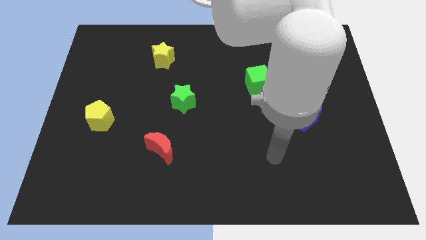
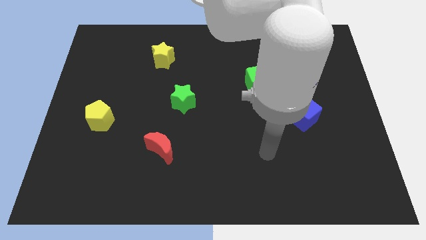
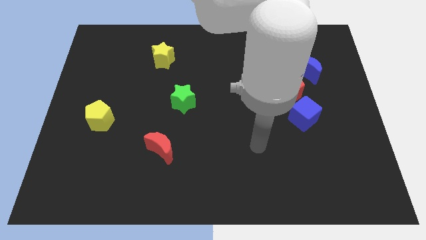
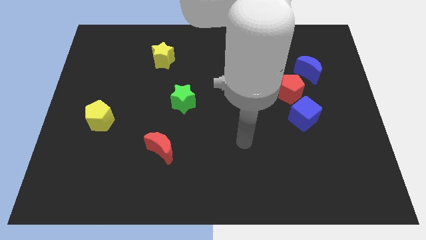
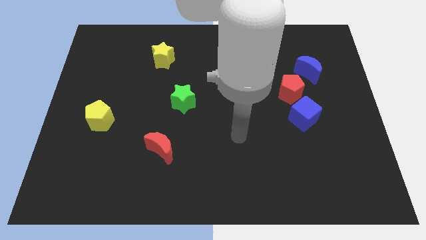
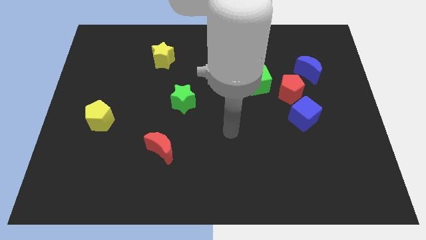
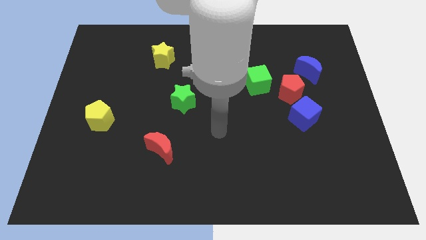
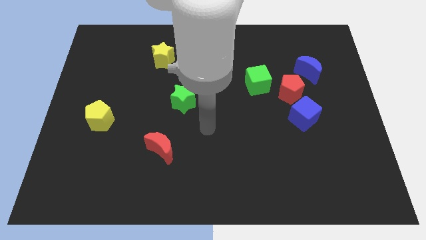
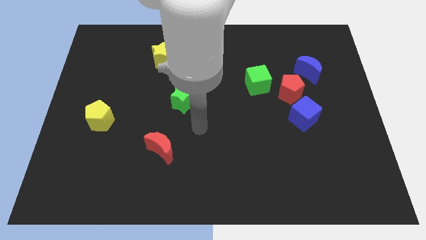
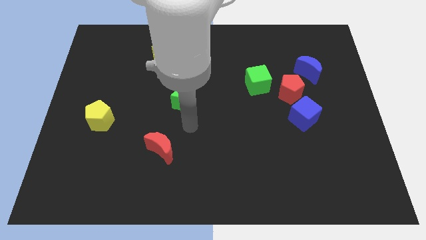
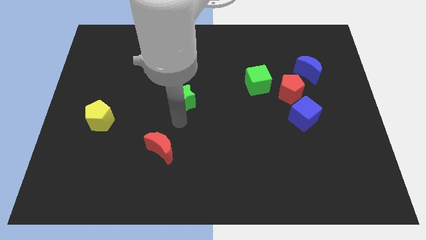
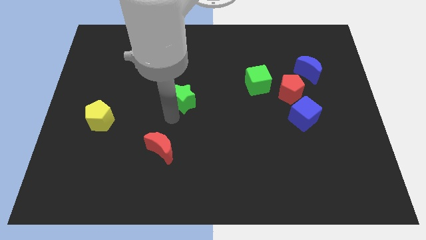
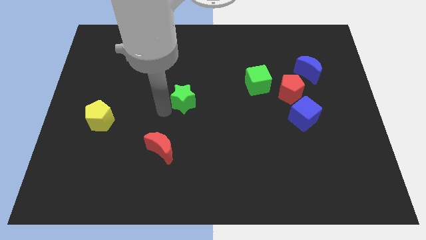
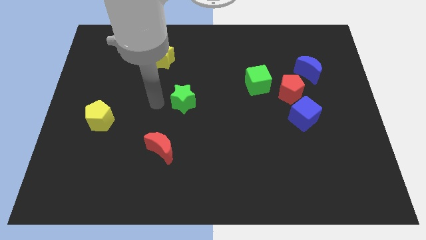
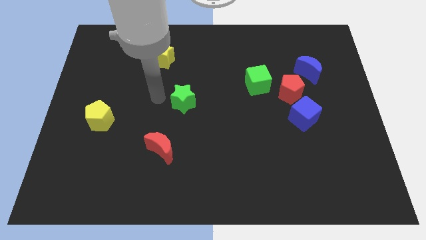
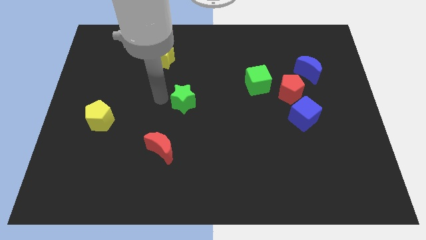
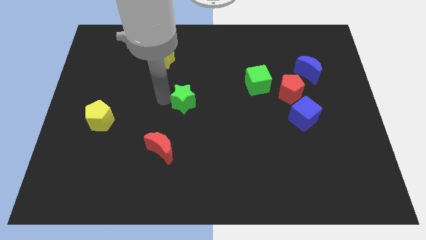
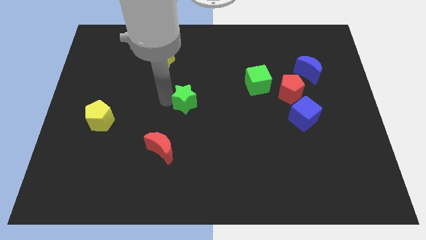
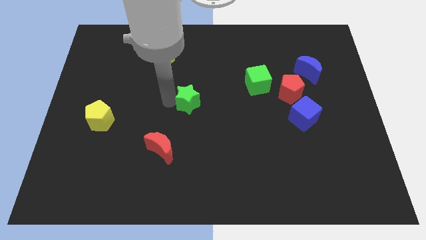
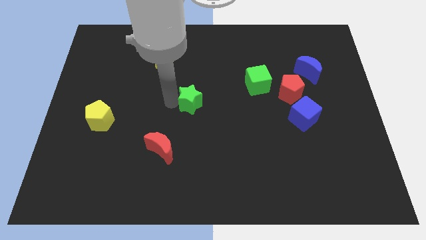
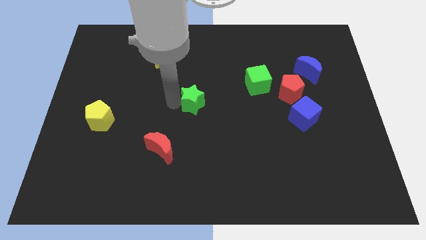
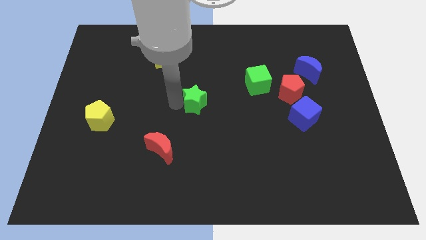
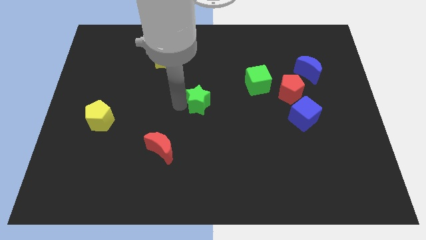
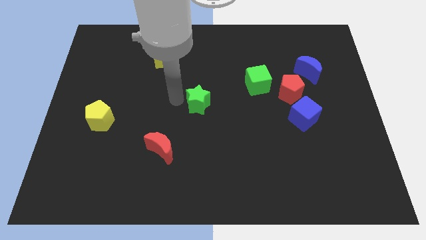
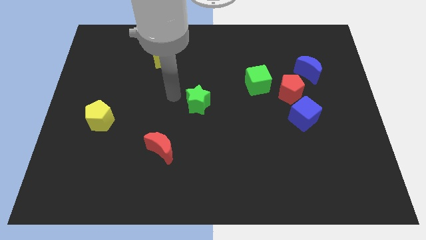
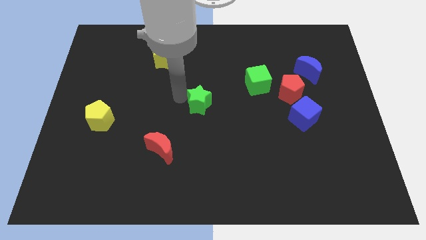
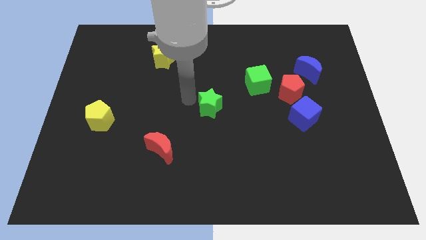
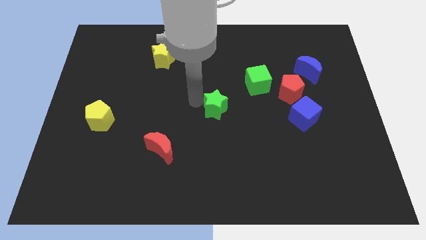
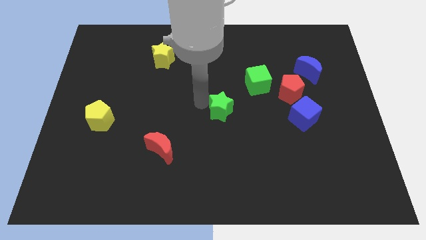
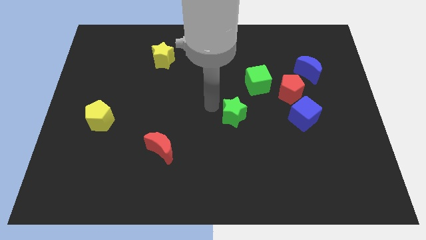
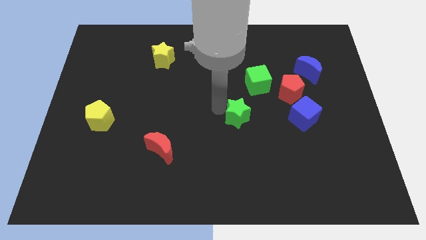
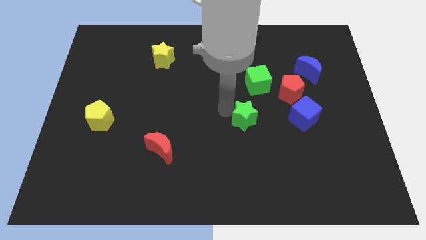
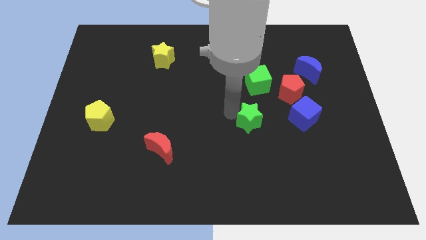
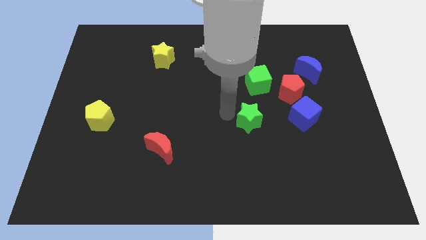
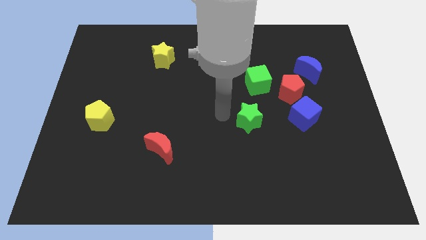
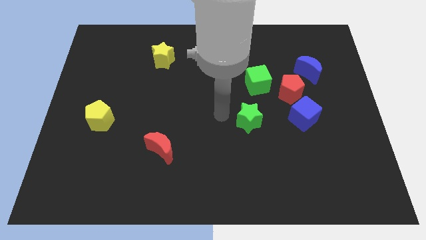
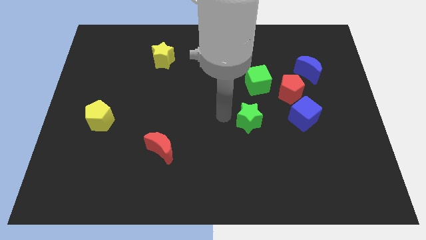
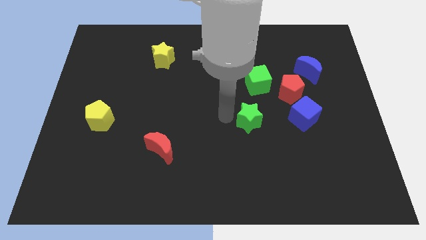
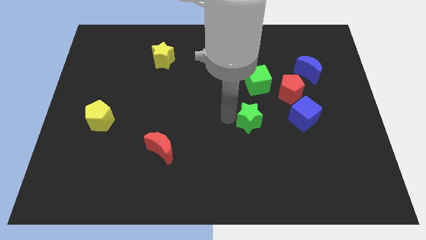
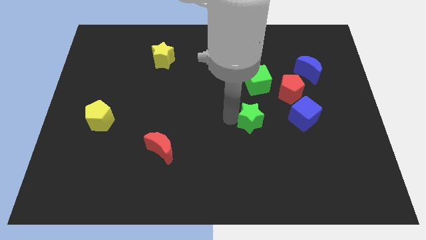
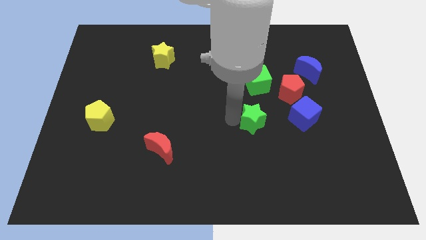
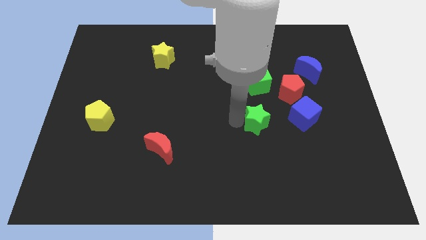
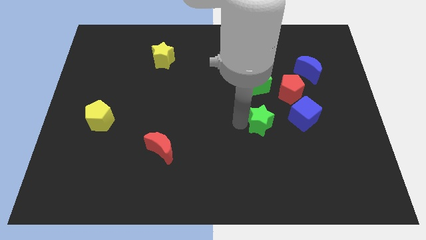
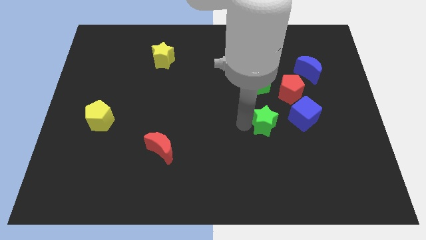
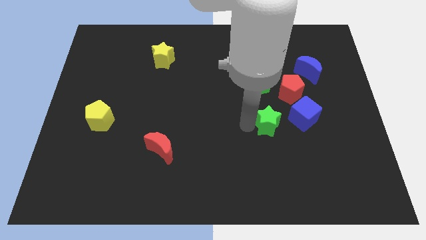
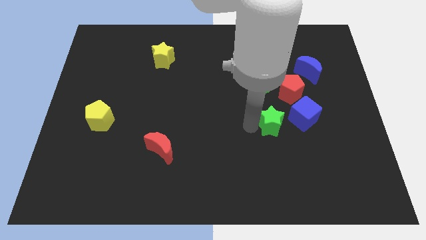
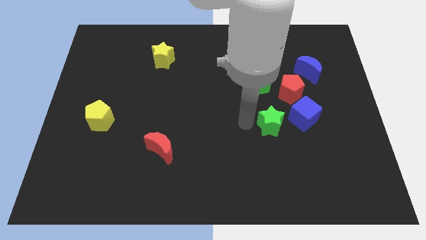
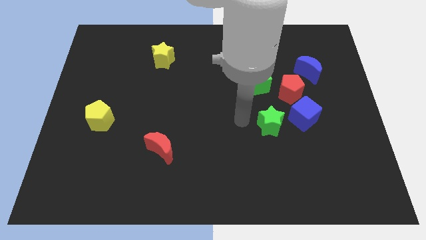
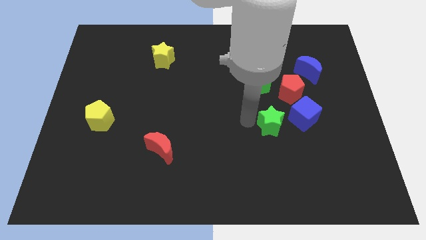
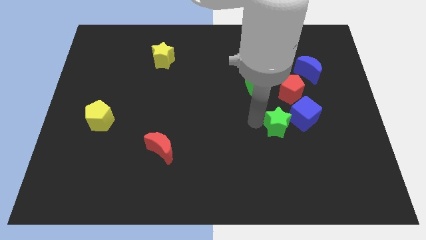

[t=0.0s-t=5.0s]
push the green star below the red pentagon

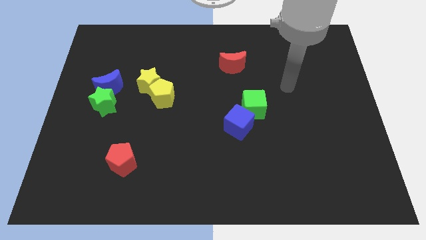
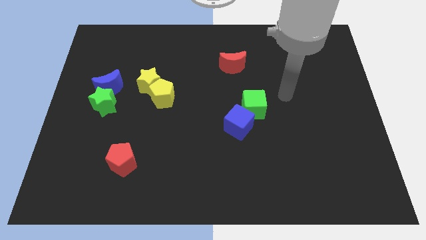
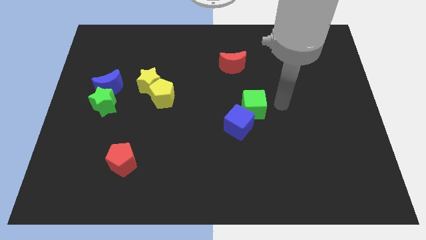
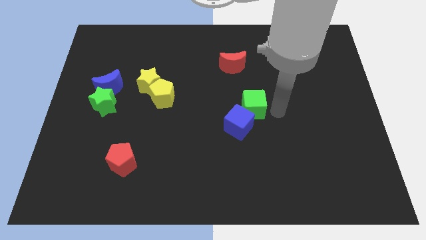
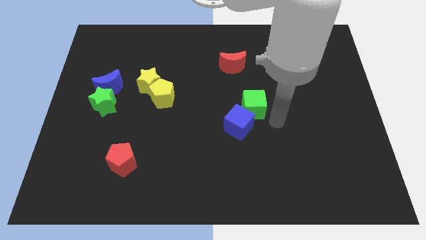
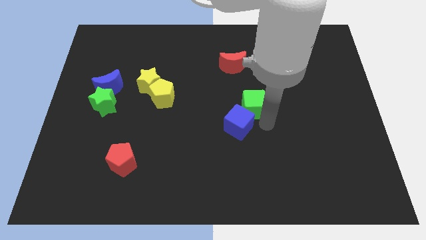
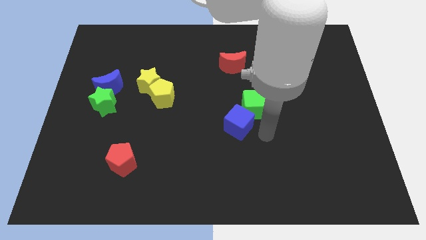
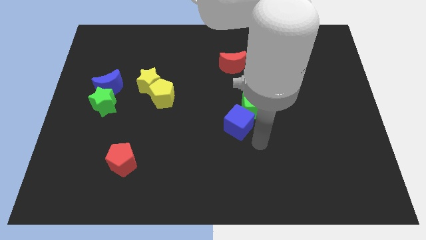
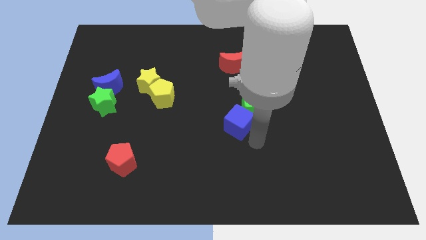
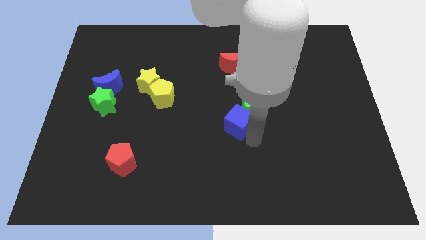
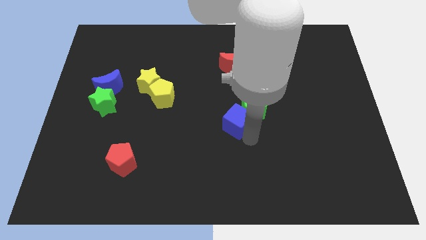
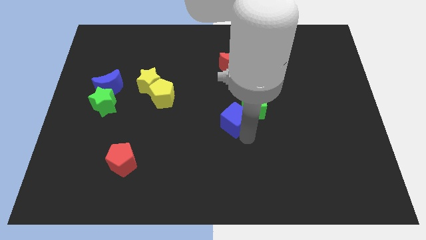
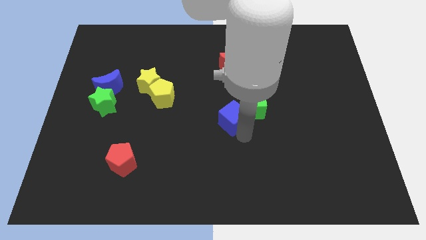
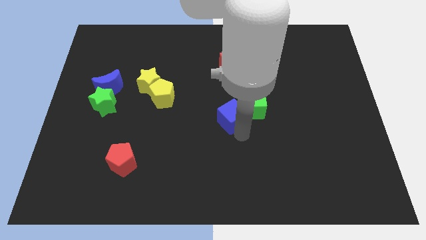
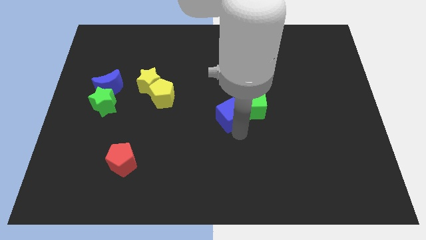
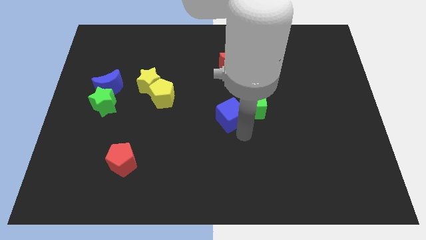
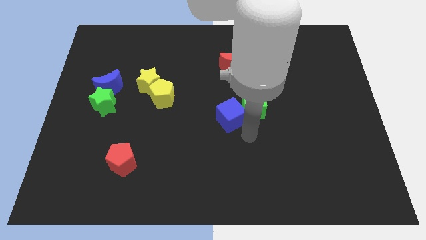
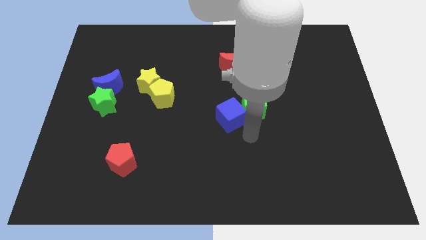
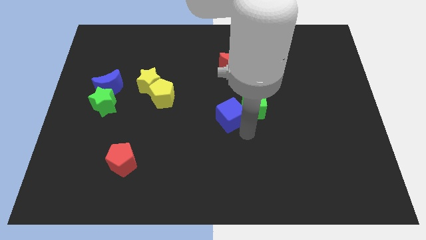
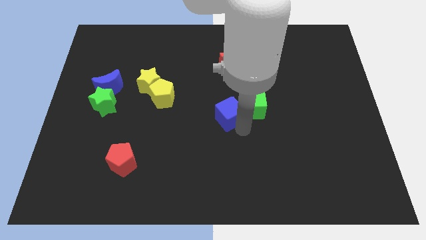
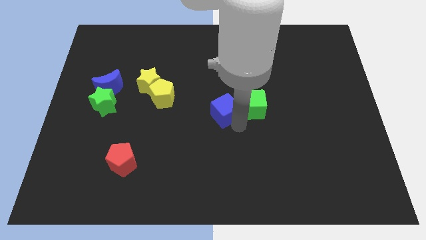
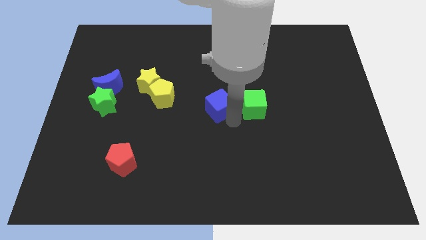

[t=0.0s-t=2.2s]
move the blue cube just right of the yellow pentagon
